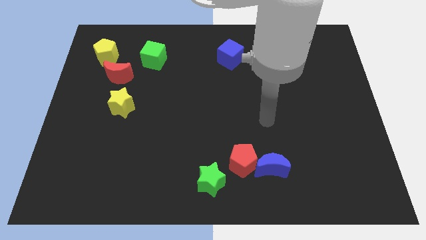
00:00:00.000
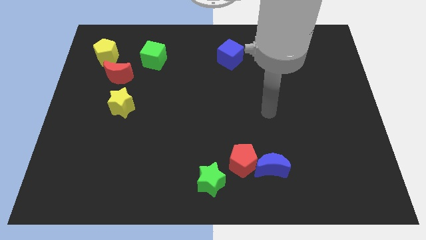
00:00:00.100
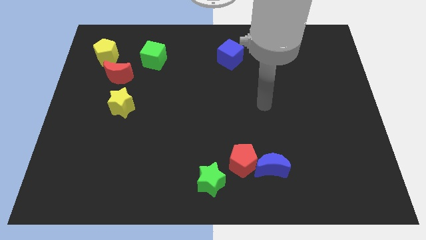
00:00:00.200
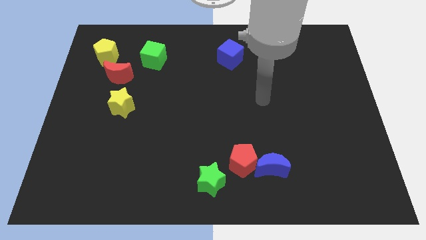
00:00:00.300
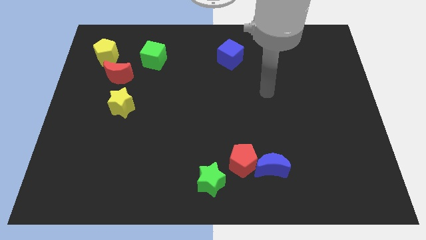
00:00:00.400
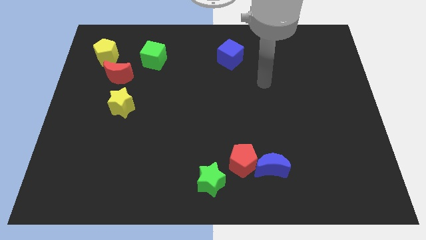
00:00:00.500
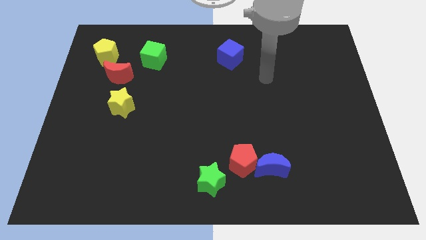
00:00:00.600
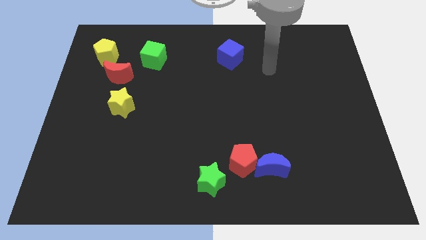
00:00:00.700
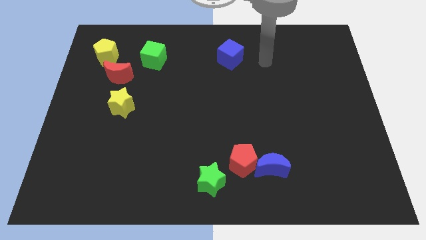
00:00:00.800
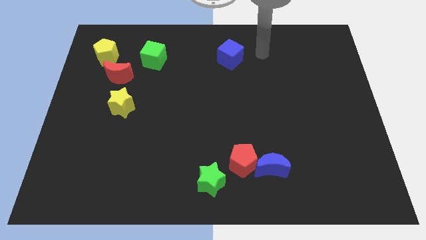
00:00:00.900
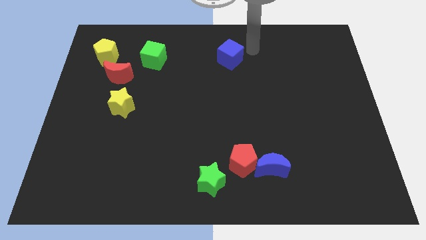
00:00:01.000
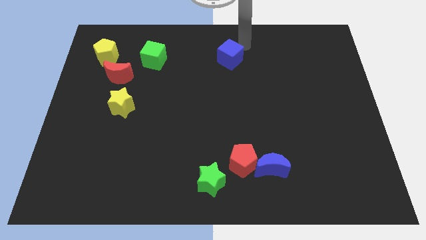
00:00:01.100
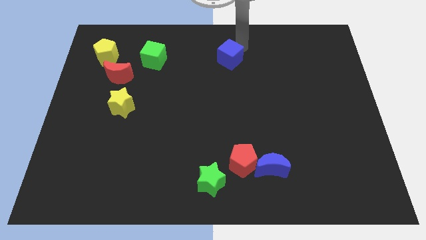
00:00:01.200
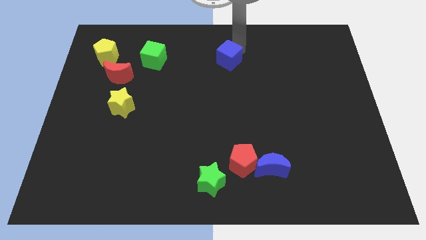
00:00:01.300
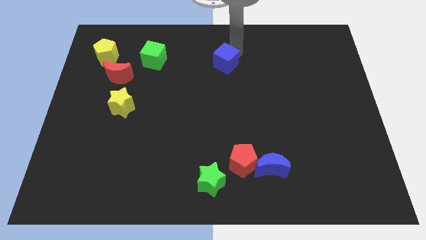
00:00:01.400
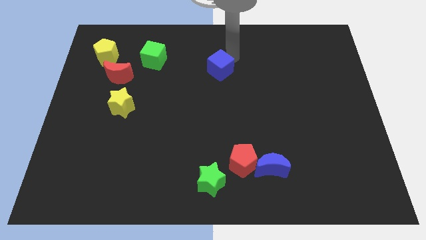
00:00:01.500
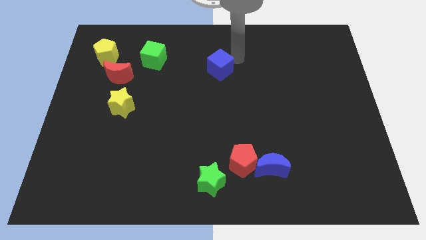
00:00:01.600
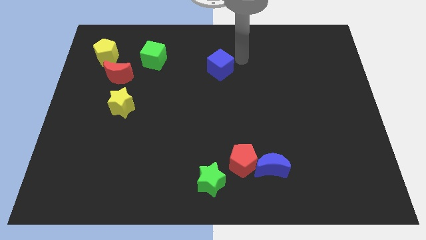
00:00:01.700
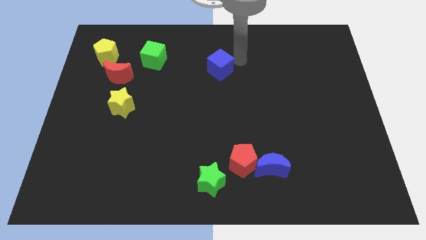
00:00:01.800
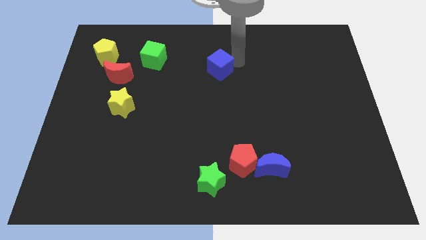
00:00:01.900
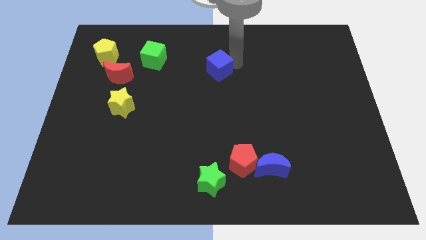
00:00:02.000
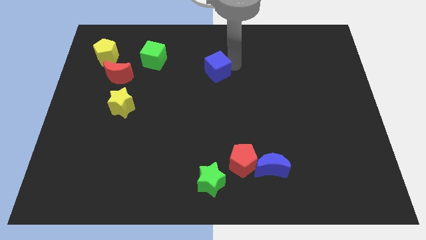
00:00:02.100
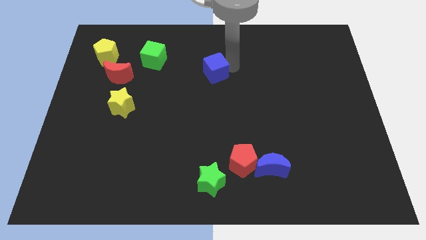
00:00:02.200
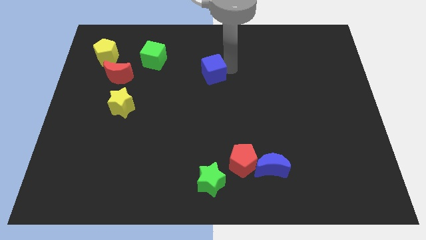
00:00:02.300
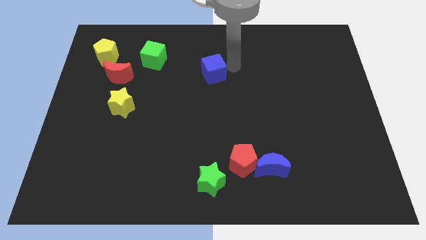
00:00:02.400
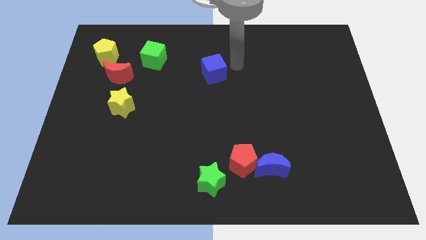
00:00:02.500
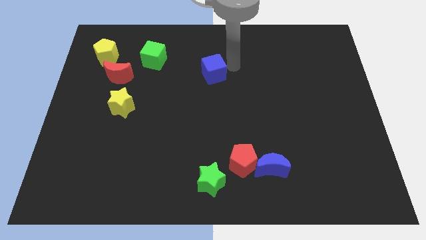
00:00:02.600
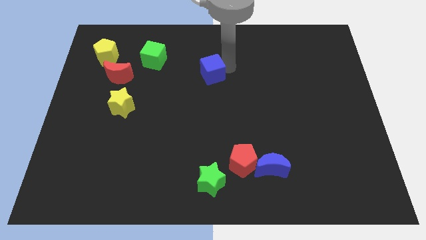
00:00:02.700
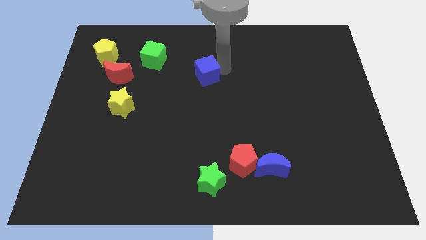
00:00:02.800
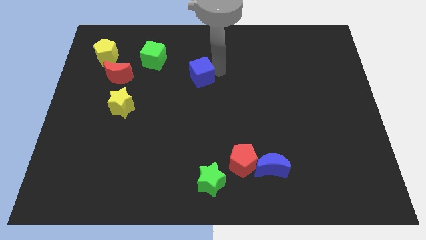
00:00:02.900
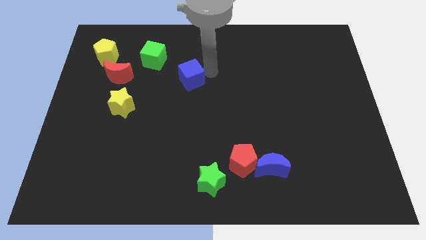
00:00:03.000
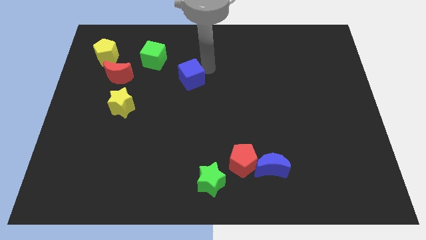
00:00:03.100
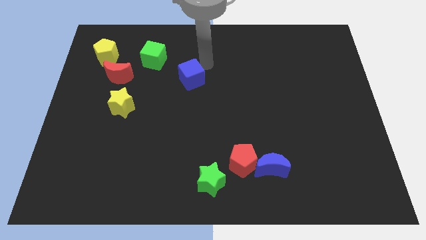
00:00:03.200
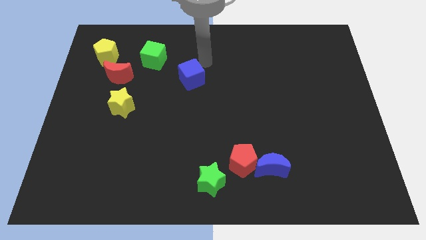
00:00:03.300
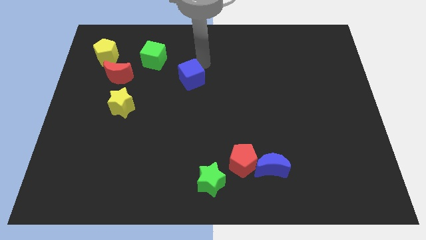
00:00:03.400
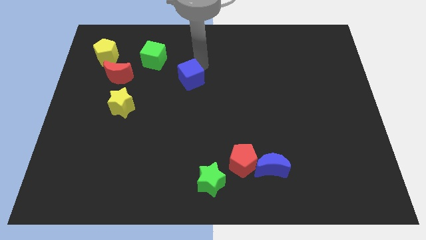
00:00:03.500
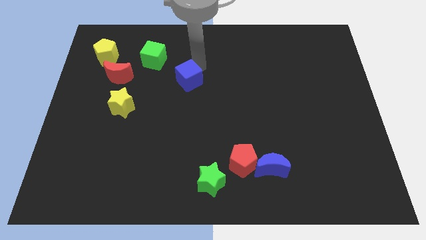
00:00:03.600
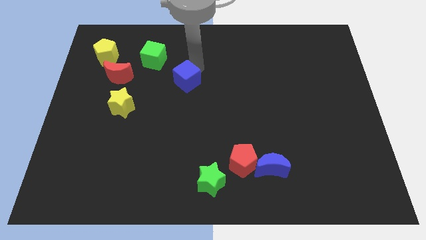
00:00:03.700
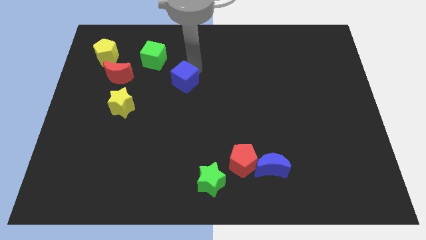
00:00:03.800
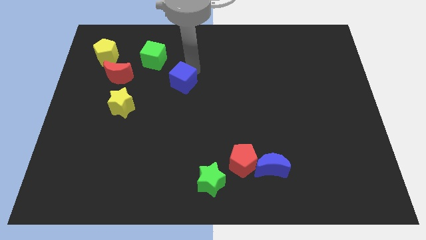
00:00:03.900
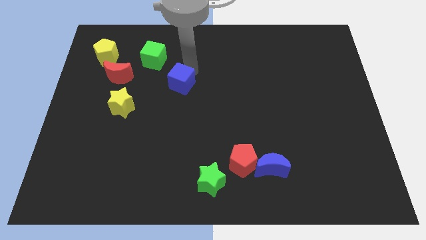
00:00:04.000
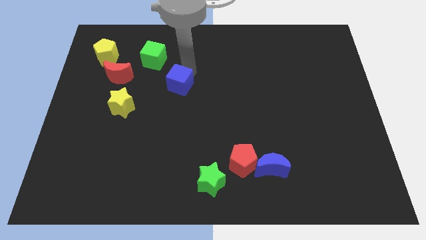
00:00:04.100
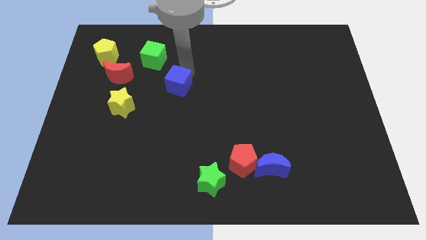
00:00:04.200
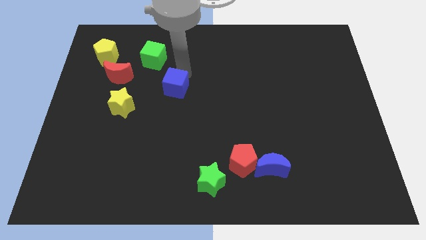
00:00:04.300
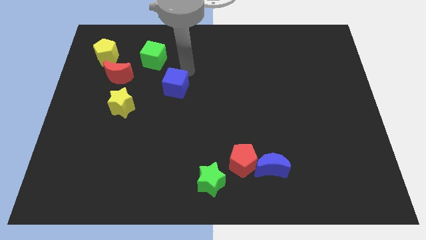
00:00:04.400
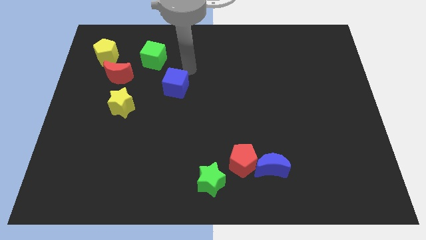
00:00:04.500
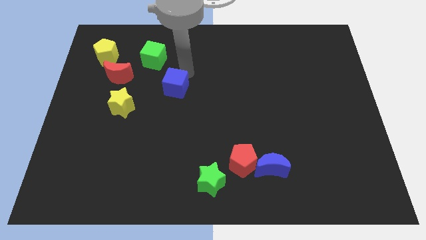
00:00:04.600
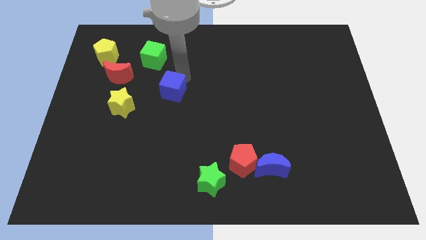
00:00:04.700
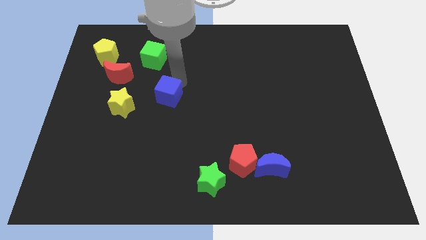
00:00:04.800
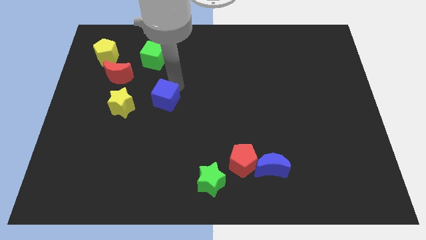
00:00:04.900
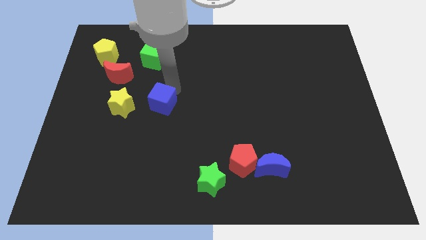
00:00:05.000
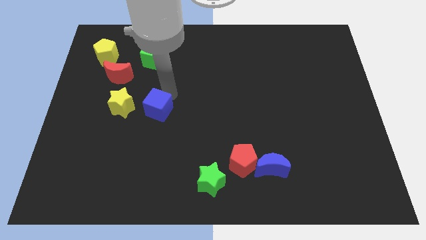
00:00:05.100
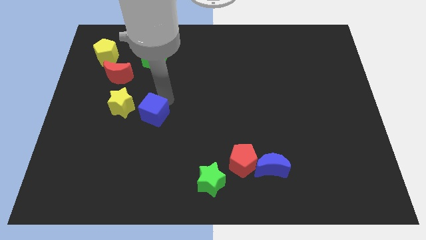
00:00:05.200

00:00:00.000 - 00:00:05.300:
move the blue cube diagonally down and to the right of the yellow star

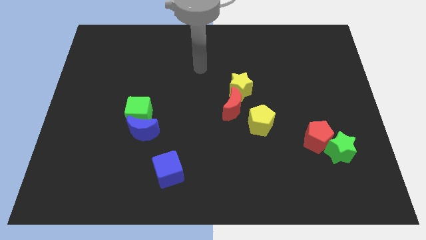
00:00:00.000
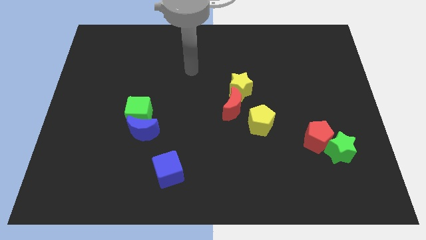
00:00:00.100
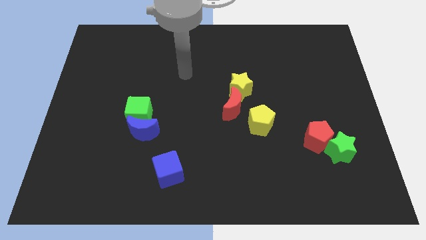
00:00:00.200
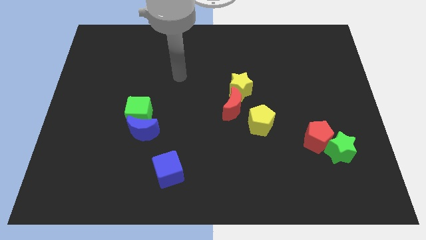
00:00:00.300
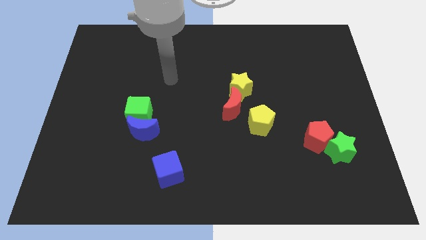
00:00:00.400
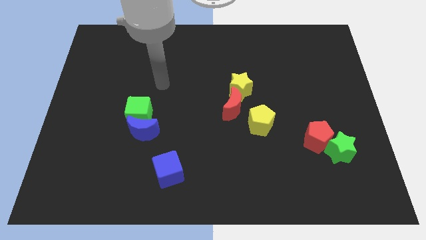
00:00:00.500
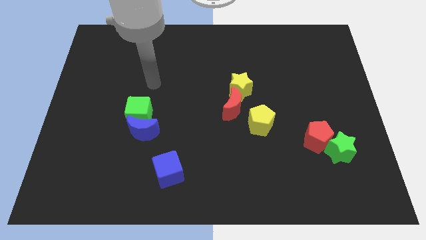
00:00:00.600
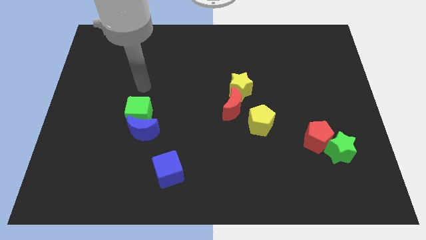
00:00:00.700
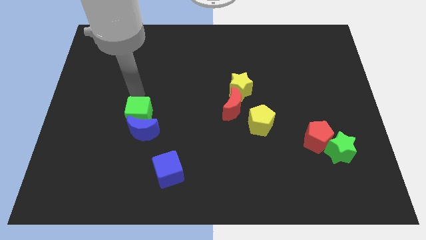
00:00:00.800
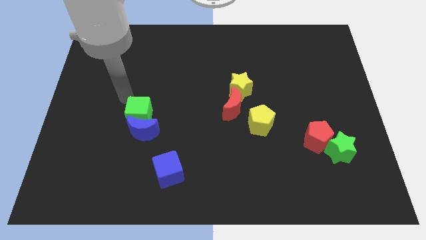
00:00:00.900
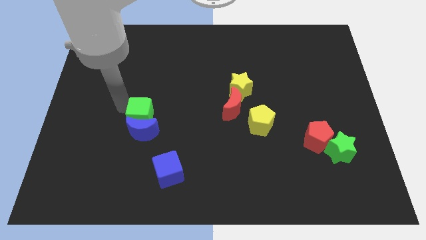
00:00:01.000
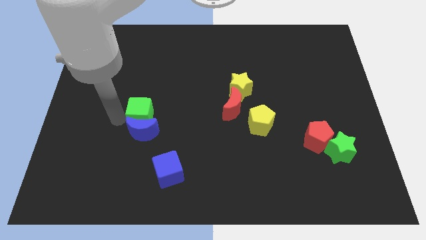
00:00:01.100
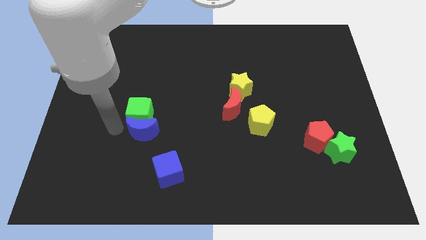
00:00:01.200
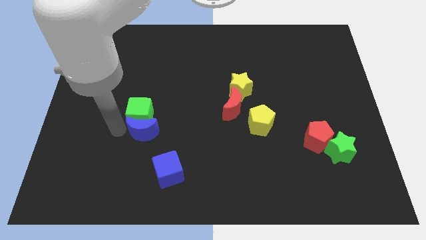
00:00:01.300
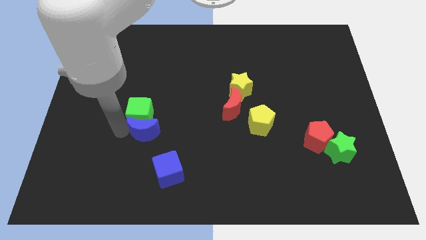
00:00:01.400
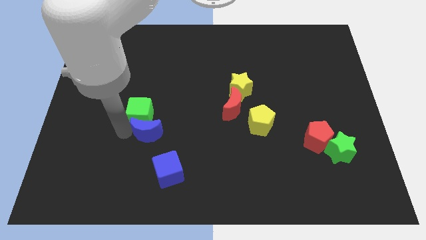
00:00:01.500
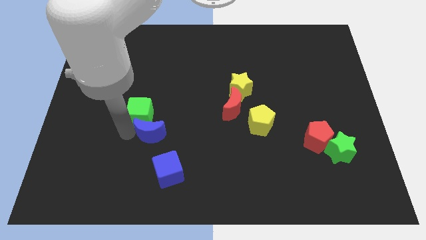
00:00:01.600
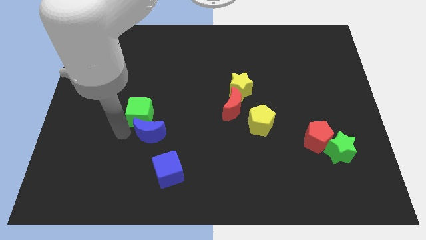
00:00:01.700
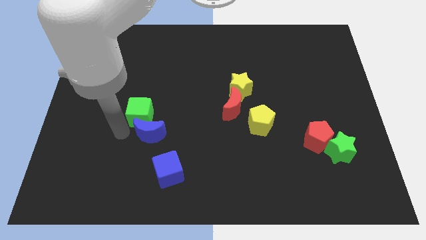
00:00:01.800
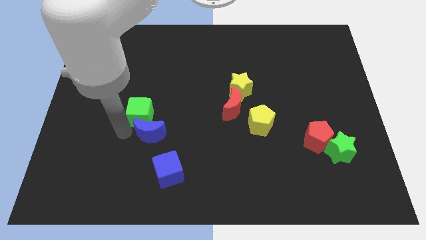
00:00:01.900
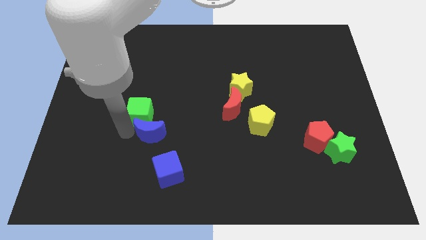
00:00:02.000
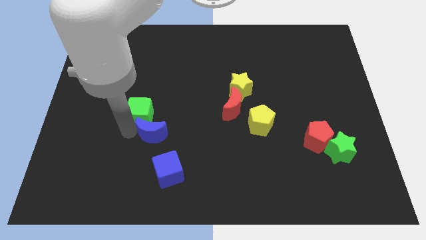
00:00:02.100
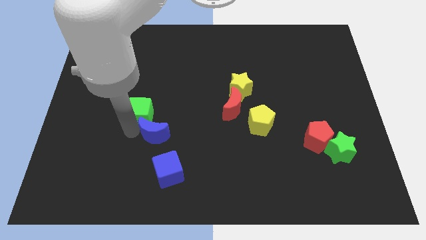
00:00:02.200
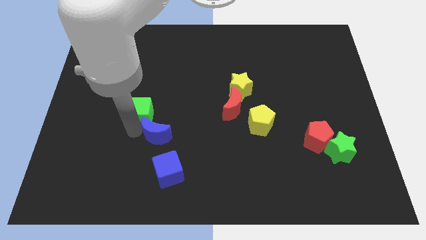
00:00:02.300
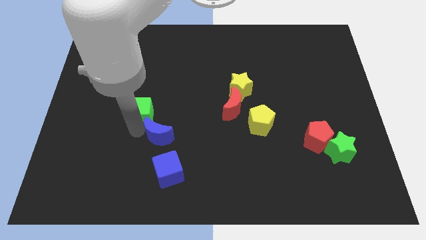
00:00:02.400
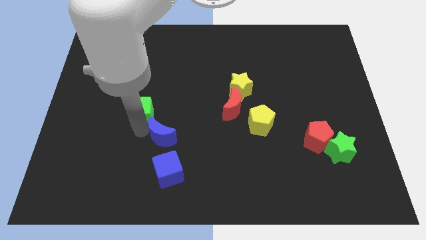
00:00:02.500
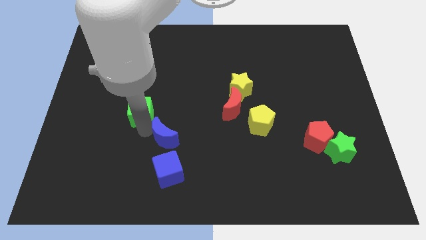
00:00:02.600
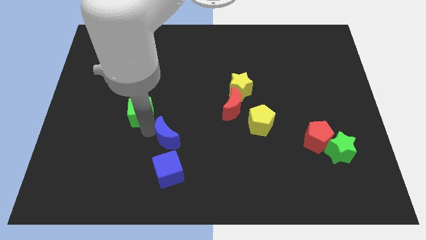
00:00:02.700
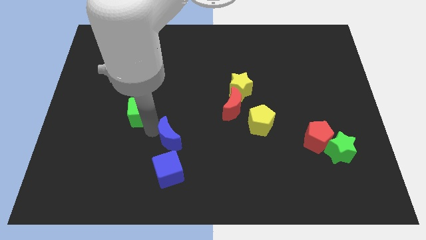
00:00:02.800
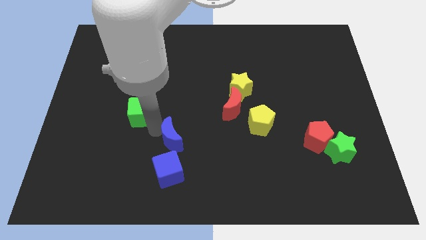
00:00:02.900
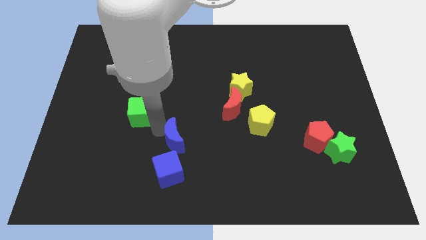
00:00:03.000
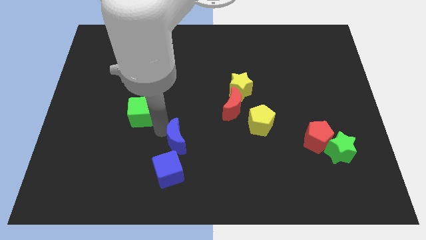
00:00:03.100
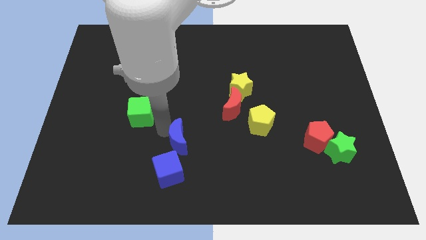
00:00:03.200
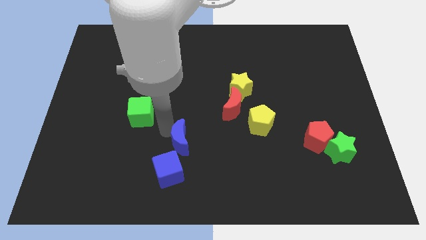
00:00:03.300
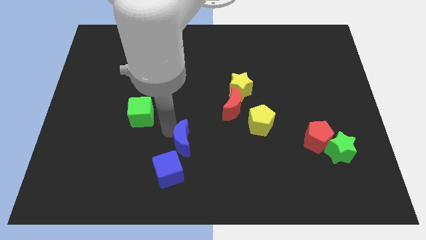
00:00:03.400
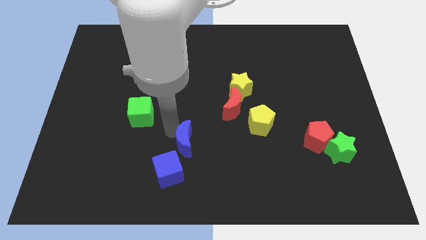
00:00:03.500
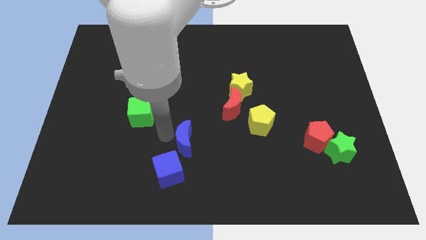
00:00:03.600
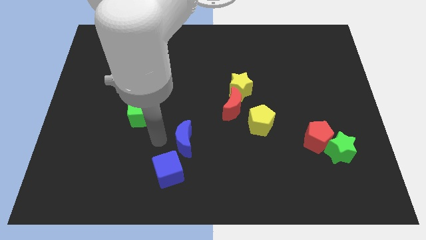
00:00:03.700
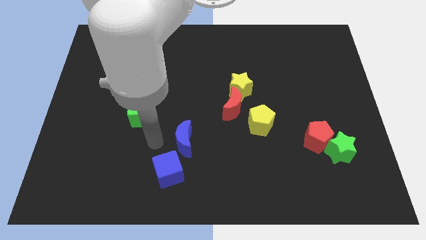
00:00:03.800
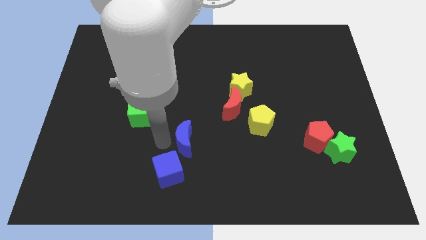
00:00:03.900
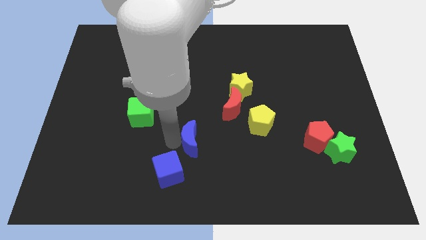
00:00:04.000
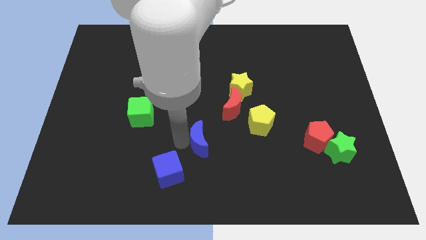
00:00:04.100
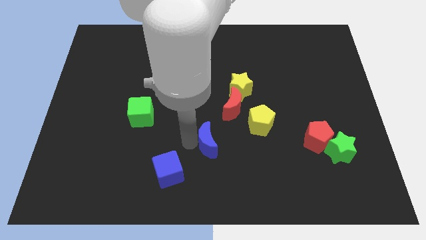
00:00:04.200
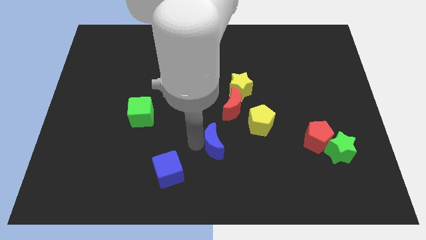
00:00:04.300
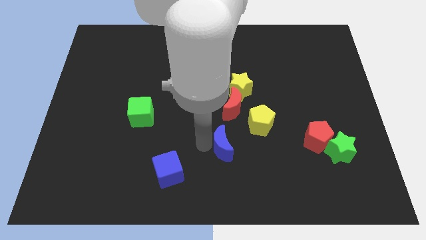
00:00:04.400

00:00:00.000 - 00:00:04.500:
push the blue moon to the bottom left side of the yellow pentagon
